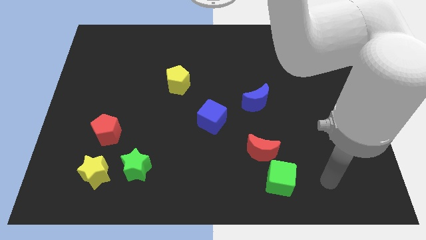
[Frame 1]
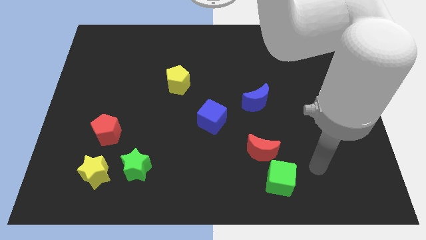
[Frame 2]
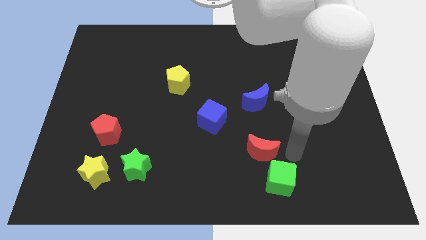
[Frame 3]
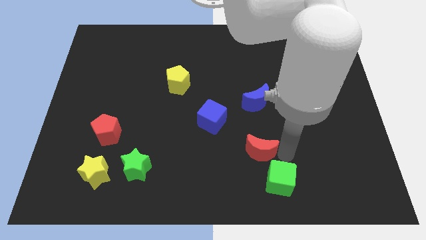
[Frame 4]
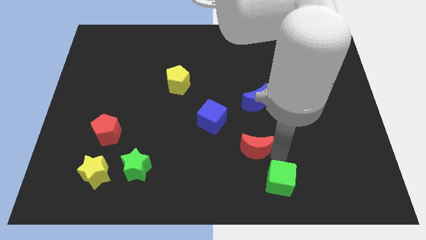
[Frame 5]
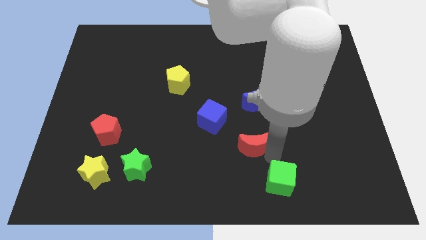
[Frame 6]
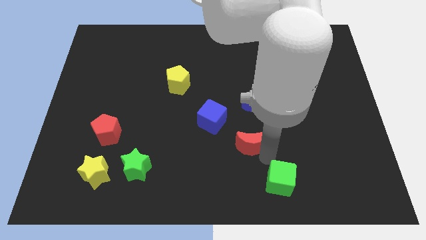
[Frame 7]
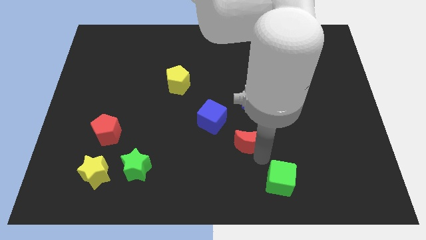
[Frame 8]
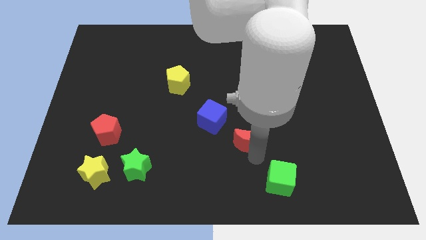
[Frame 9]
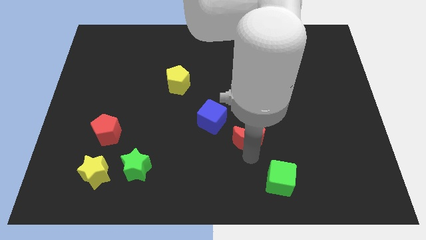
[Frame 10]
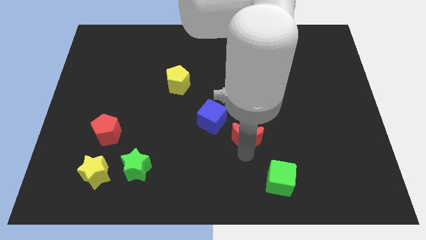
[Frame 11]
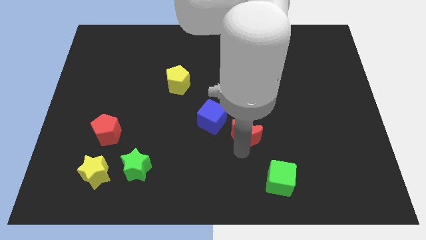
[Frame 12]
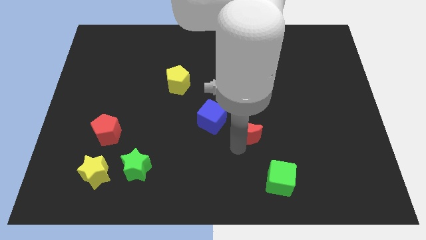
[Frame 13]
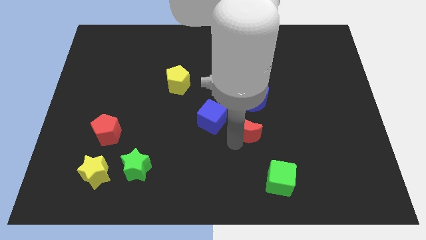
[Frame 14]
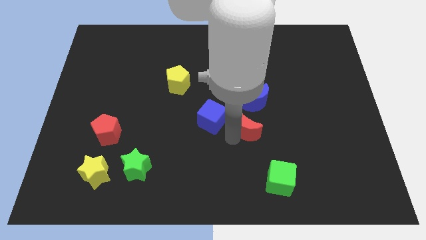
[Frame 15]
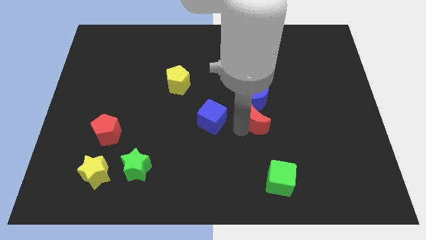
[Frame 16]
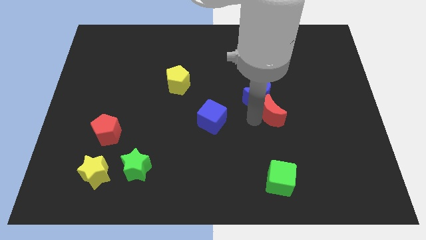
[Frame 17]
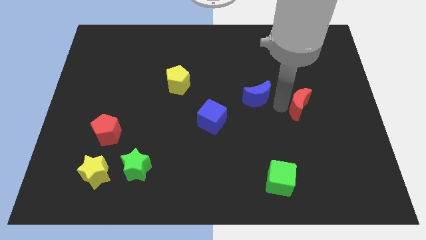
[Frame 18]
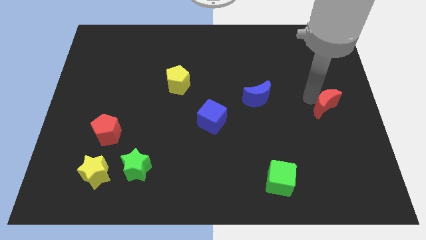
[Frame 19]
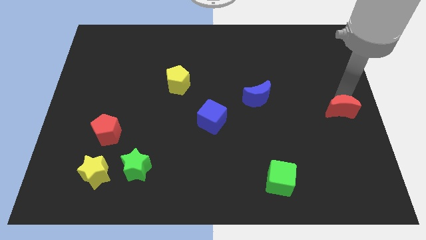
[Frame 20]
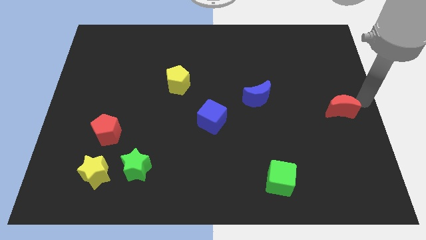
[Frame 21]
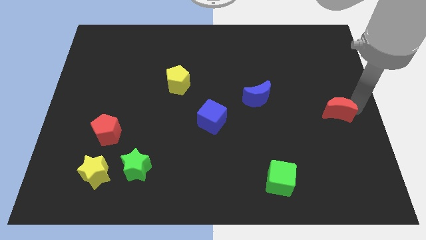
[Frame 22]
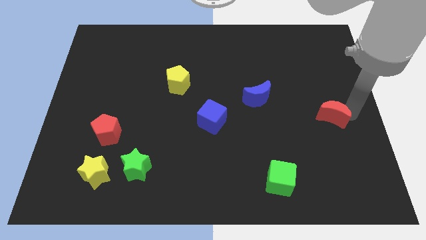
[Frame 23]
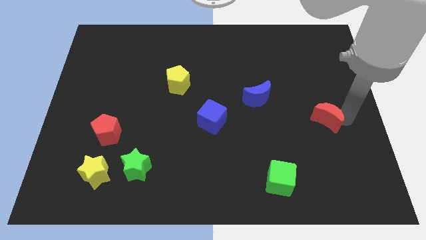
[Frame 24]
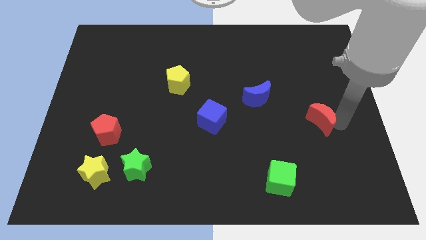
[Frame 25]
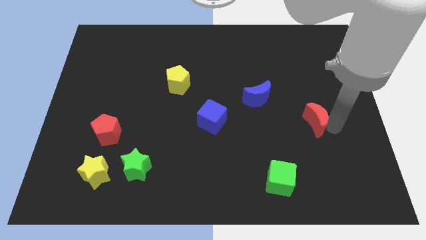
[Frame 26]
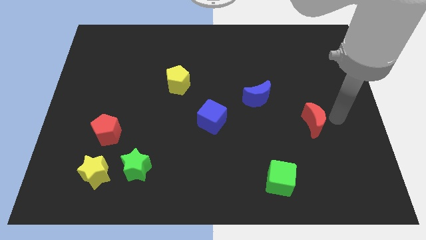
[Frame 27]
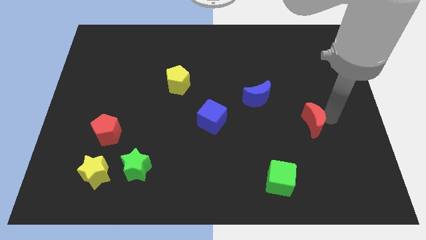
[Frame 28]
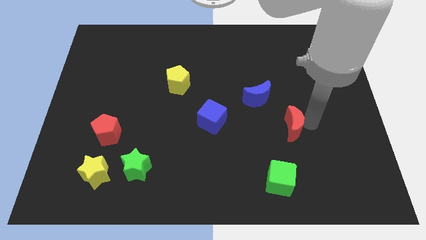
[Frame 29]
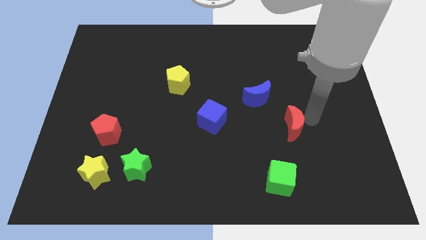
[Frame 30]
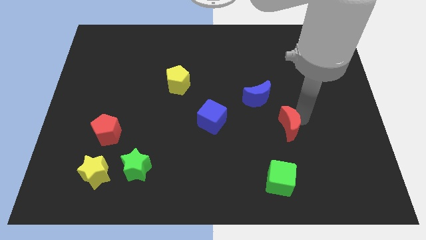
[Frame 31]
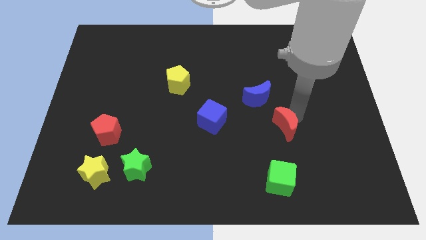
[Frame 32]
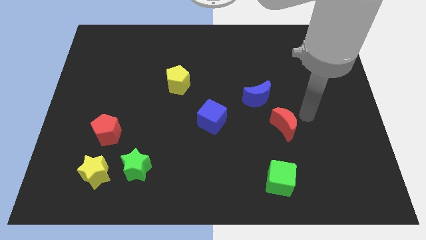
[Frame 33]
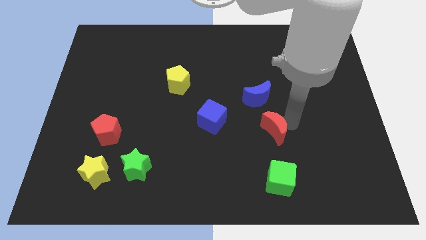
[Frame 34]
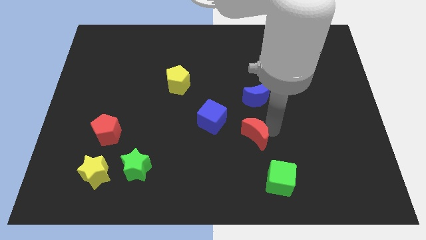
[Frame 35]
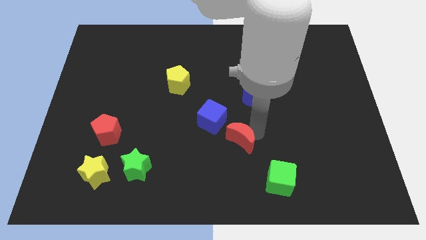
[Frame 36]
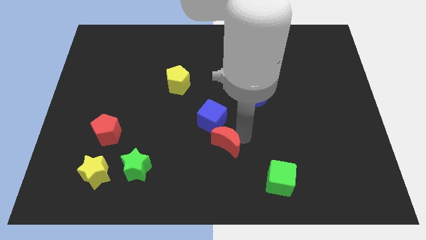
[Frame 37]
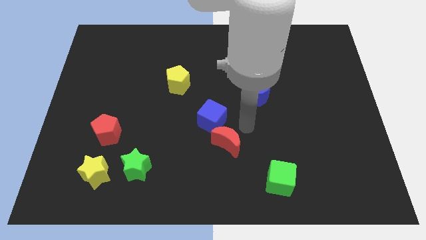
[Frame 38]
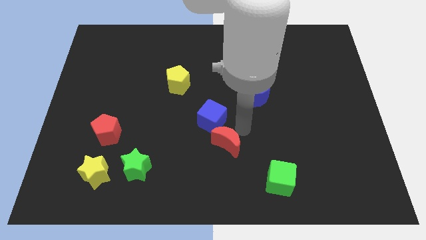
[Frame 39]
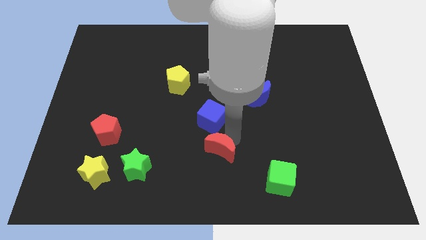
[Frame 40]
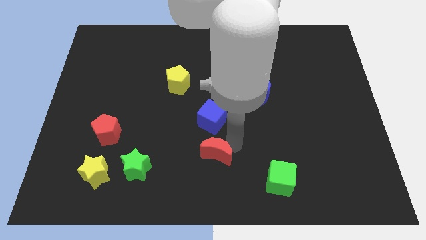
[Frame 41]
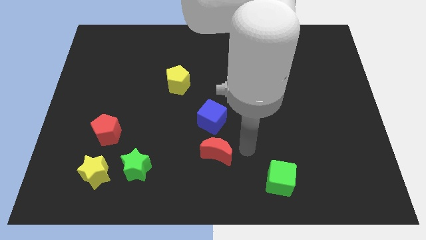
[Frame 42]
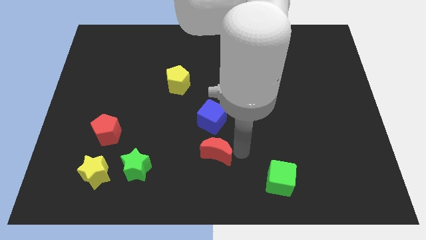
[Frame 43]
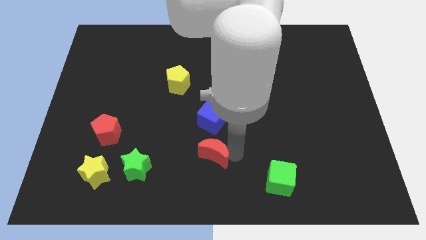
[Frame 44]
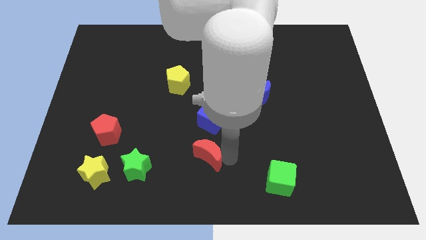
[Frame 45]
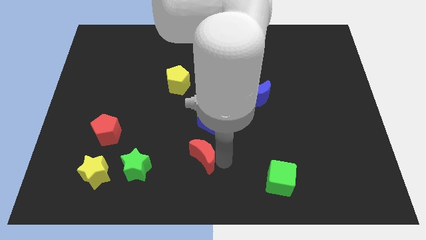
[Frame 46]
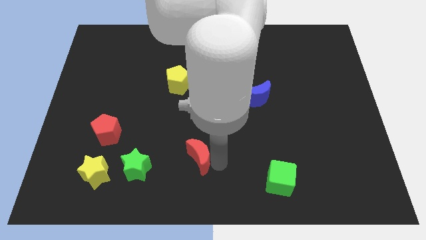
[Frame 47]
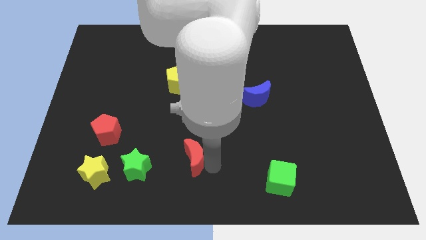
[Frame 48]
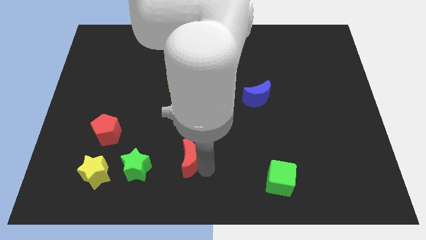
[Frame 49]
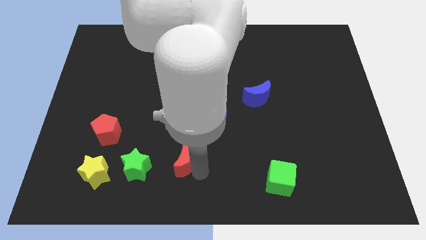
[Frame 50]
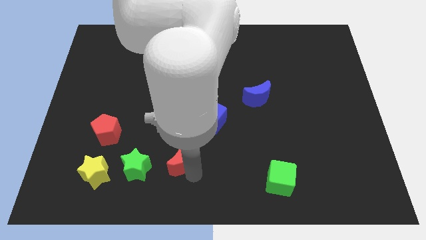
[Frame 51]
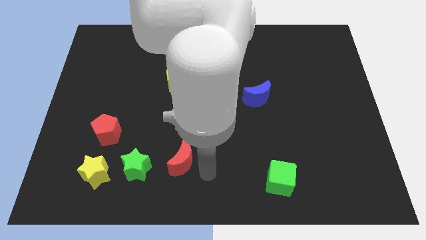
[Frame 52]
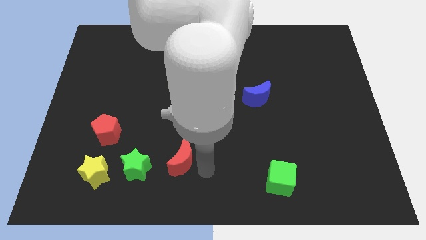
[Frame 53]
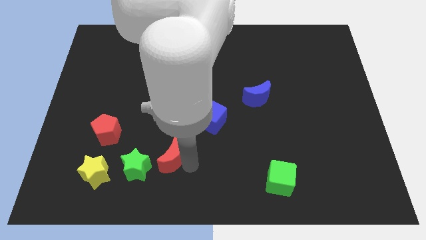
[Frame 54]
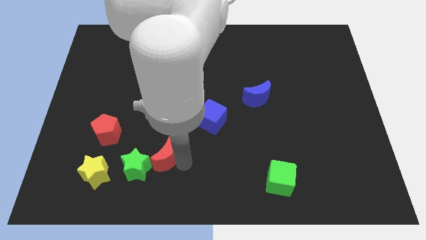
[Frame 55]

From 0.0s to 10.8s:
move the red moon to the left

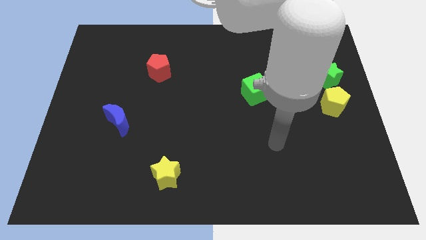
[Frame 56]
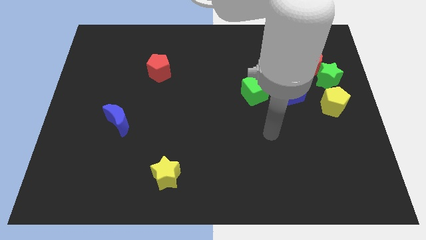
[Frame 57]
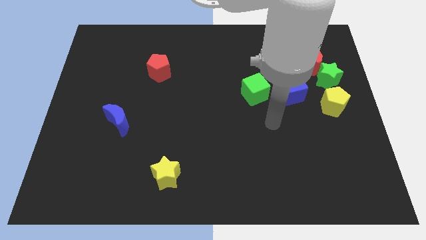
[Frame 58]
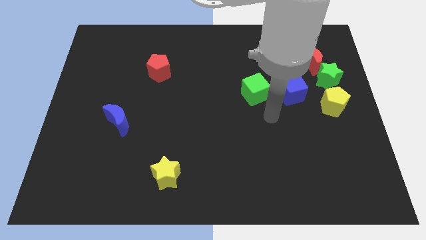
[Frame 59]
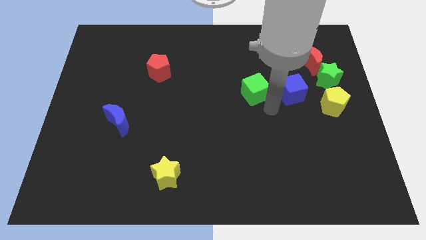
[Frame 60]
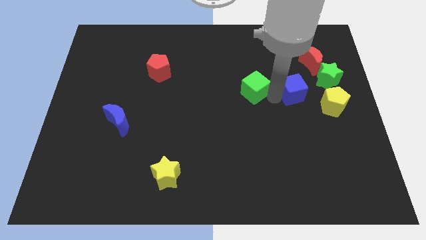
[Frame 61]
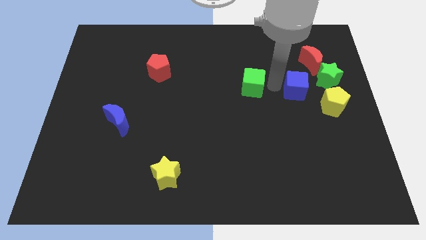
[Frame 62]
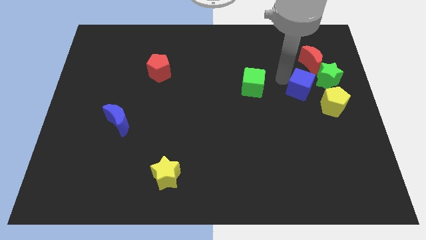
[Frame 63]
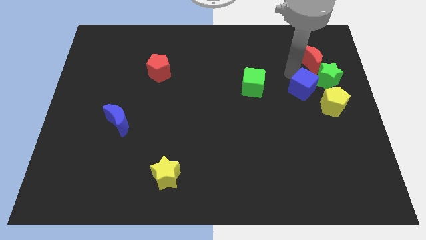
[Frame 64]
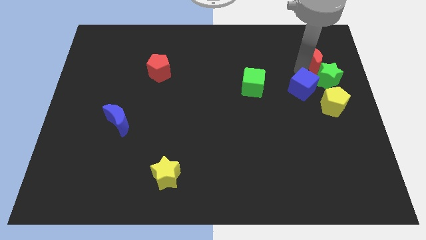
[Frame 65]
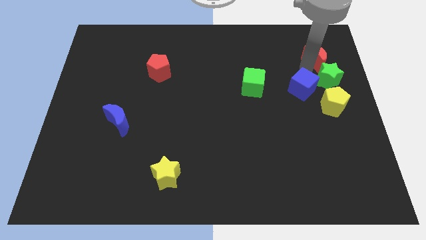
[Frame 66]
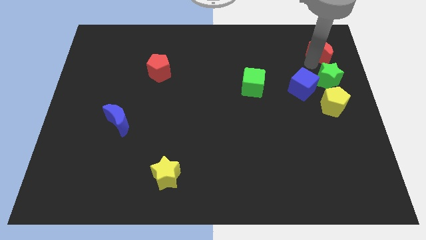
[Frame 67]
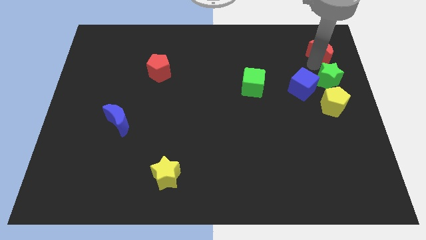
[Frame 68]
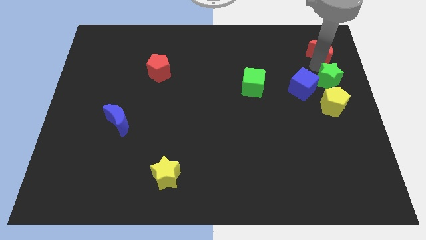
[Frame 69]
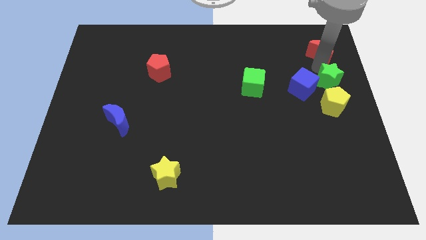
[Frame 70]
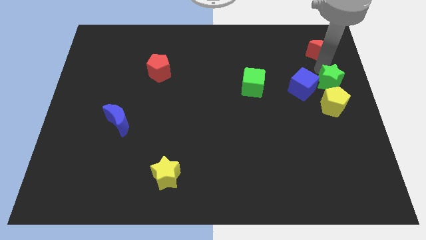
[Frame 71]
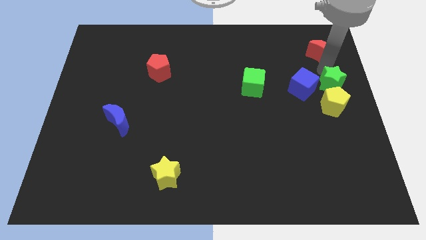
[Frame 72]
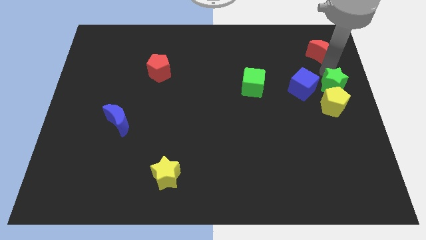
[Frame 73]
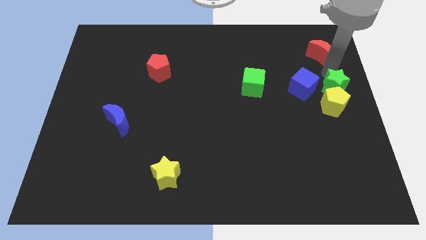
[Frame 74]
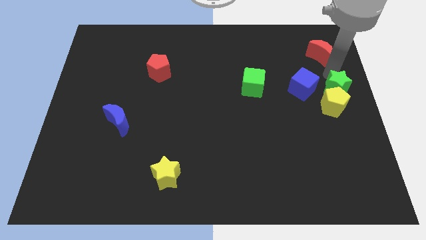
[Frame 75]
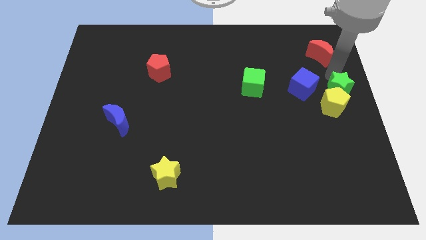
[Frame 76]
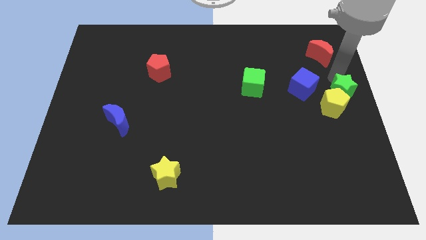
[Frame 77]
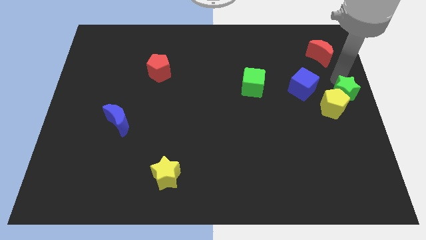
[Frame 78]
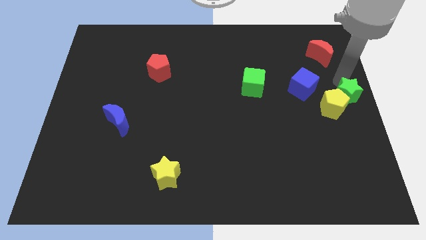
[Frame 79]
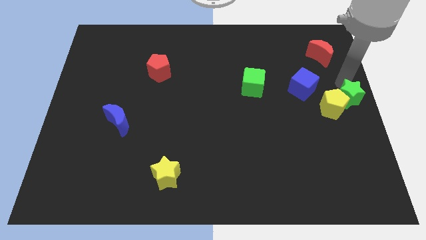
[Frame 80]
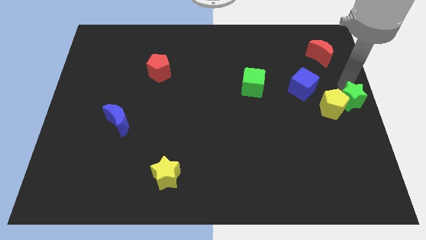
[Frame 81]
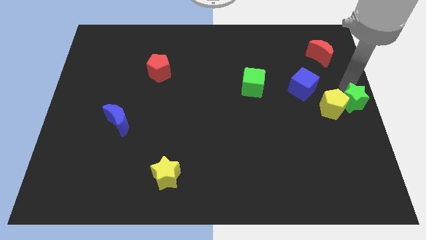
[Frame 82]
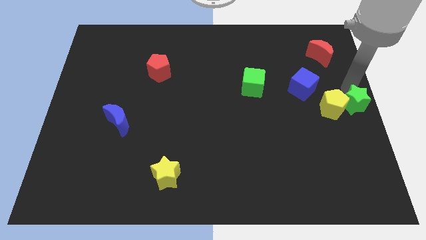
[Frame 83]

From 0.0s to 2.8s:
move the green star somewhat downwards
